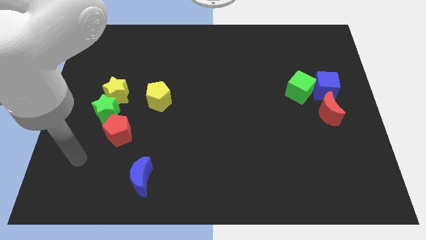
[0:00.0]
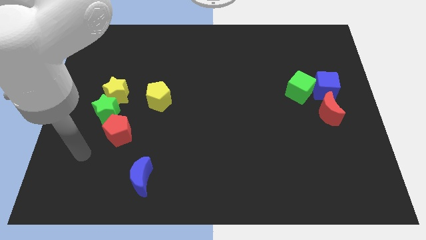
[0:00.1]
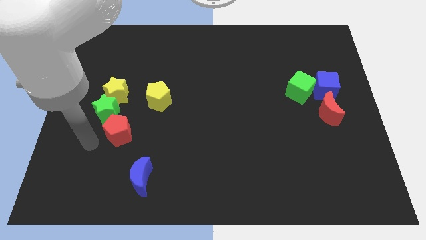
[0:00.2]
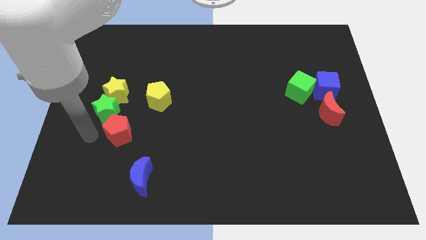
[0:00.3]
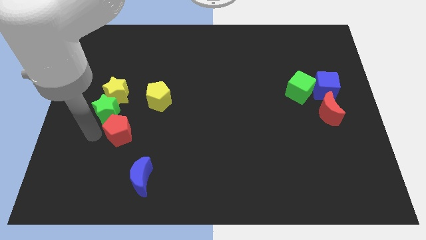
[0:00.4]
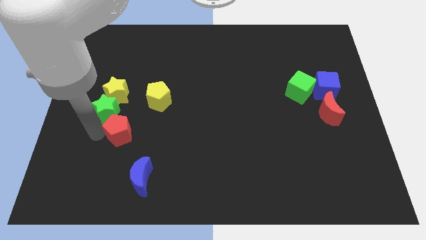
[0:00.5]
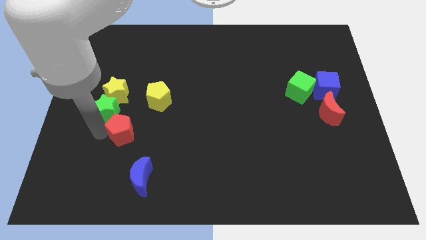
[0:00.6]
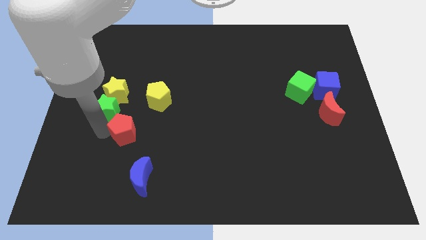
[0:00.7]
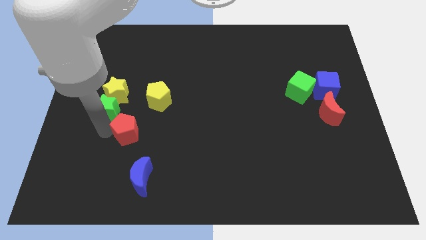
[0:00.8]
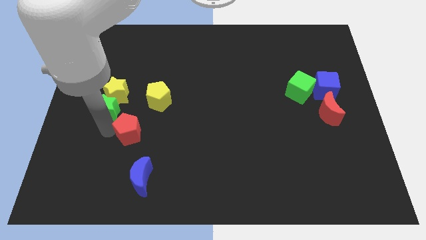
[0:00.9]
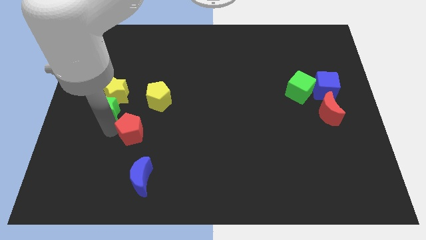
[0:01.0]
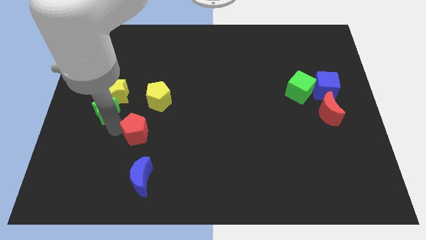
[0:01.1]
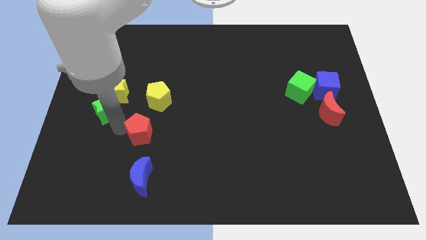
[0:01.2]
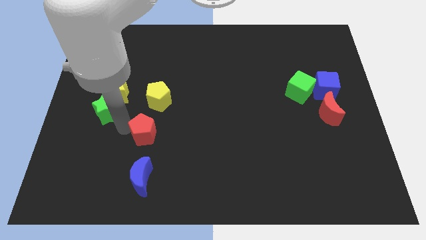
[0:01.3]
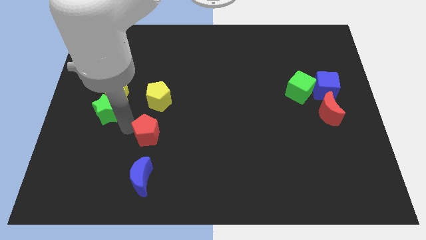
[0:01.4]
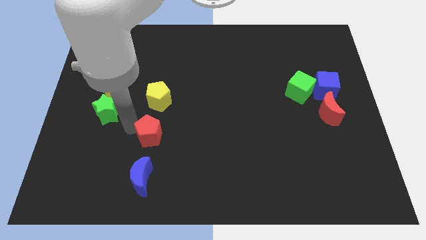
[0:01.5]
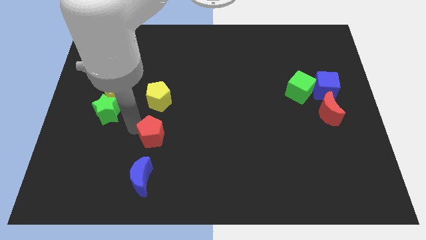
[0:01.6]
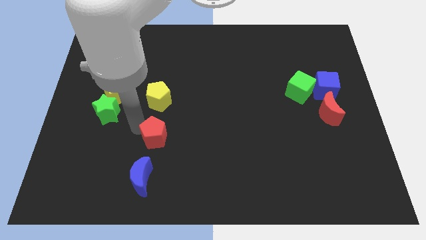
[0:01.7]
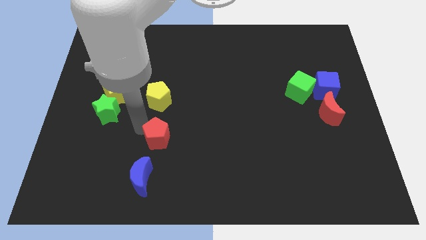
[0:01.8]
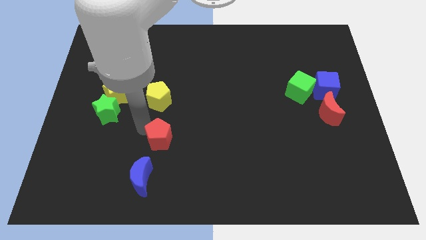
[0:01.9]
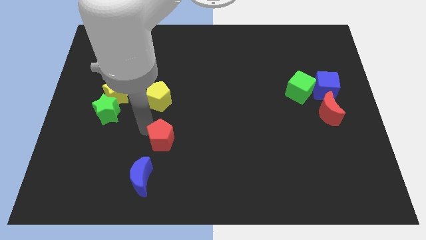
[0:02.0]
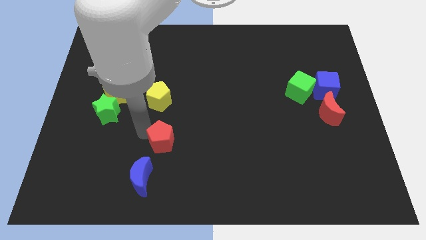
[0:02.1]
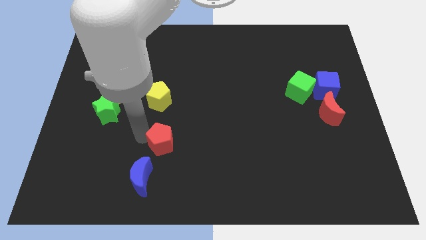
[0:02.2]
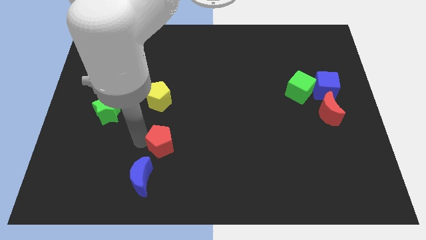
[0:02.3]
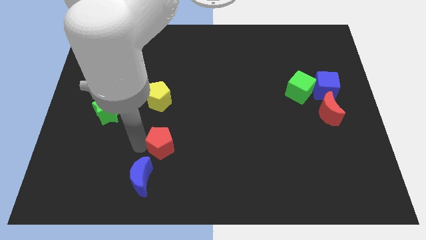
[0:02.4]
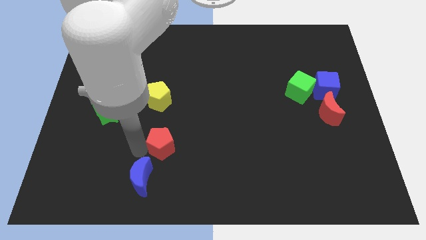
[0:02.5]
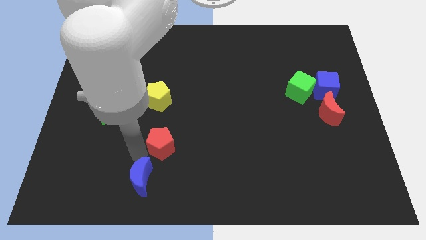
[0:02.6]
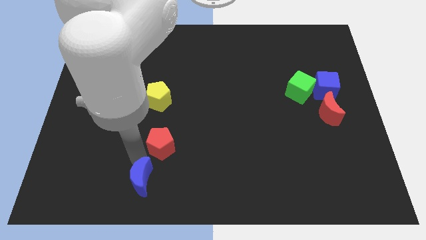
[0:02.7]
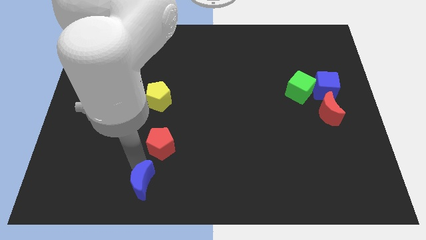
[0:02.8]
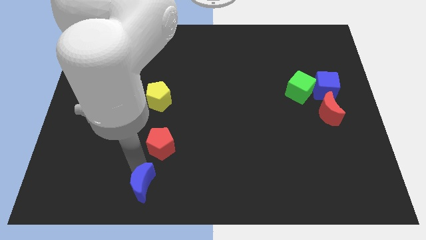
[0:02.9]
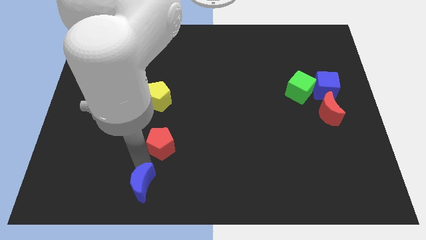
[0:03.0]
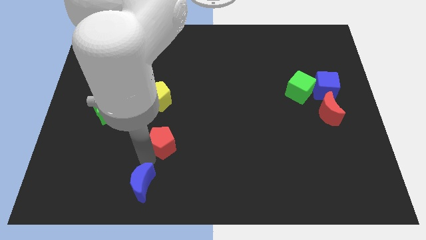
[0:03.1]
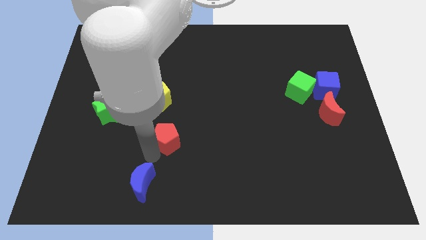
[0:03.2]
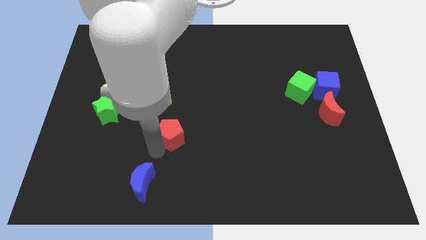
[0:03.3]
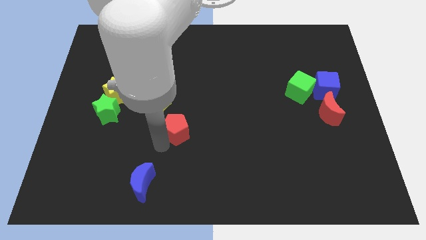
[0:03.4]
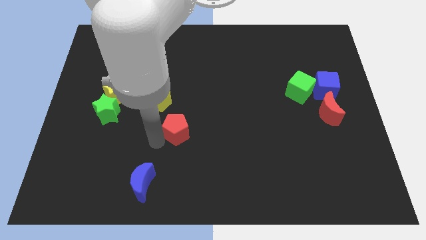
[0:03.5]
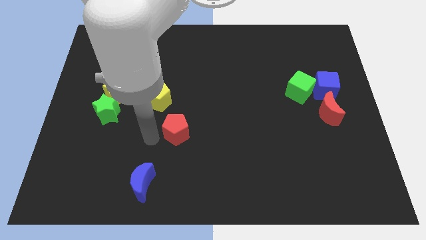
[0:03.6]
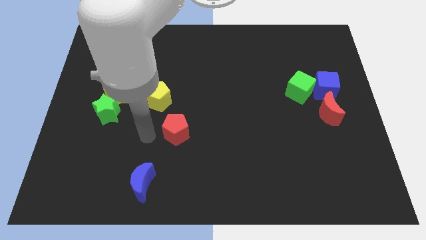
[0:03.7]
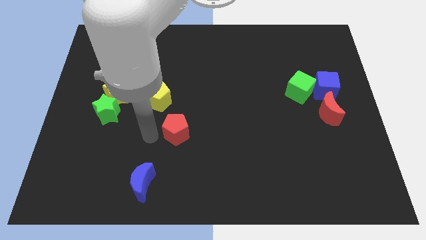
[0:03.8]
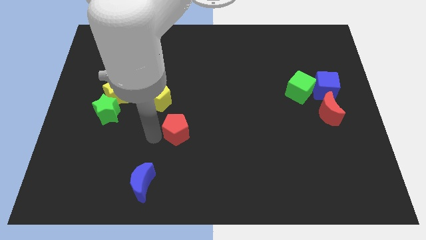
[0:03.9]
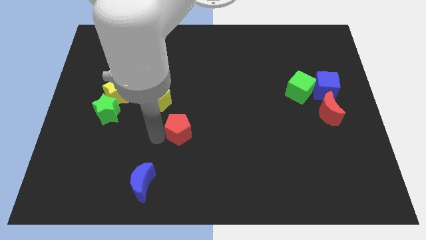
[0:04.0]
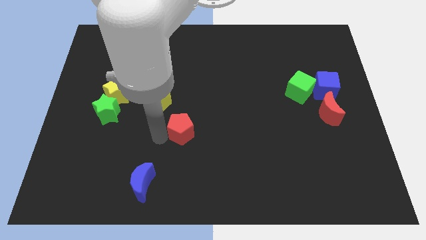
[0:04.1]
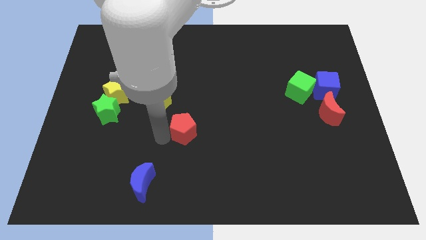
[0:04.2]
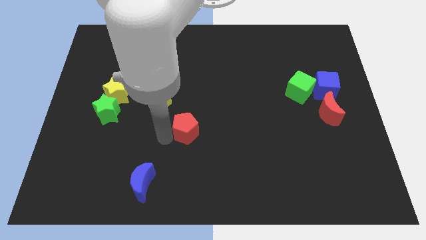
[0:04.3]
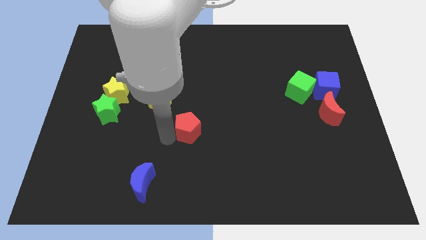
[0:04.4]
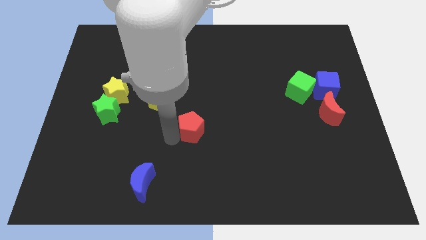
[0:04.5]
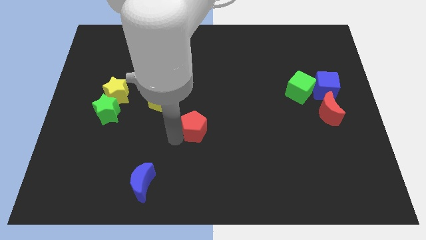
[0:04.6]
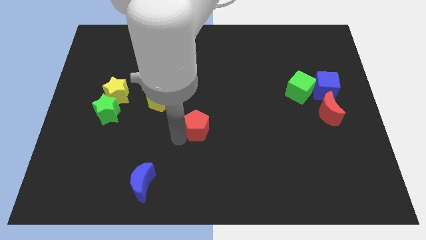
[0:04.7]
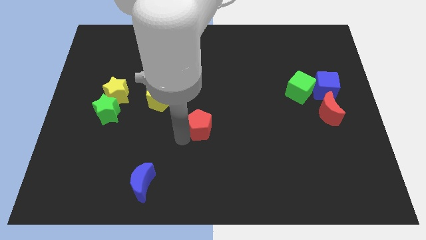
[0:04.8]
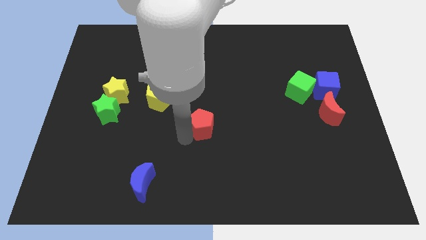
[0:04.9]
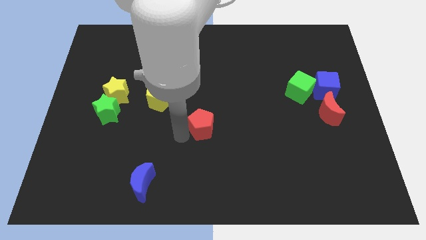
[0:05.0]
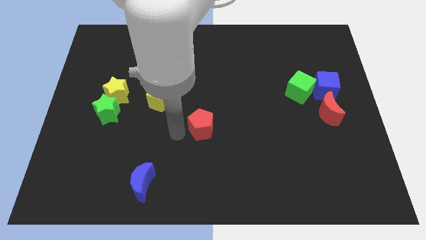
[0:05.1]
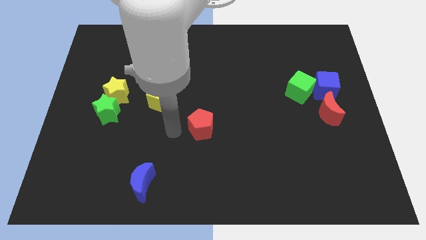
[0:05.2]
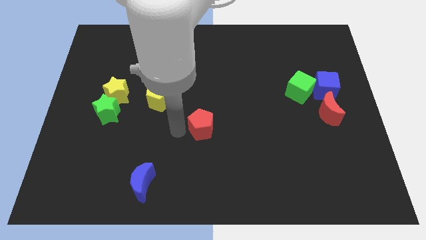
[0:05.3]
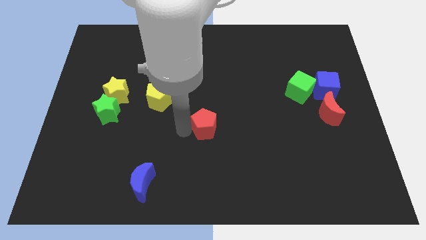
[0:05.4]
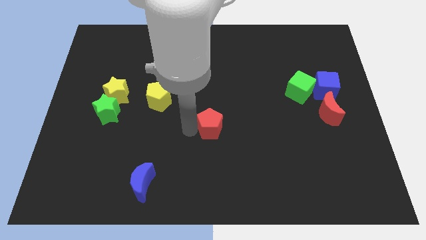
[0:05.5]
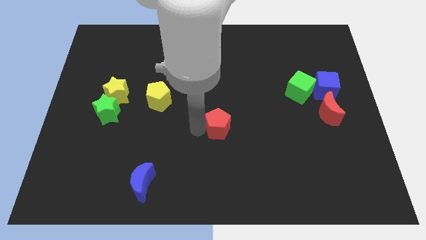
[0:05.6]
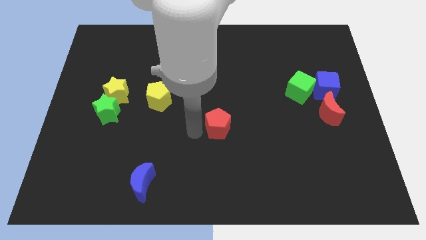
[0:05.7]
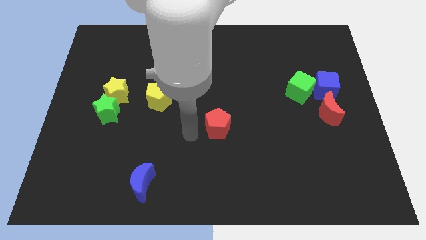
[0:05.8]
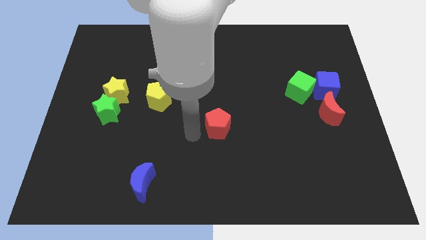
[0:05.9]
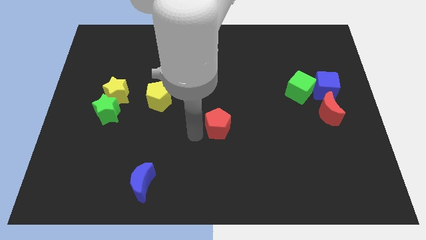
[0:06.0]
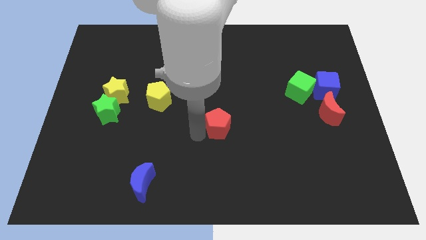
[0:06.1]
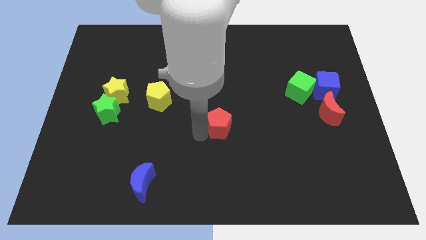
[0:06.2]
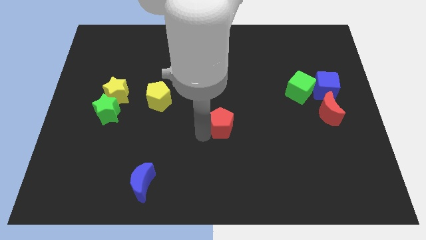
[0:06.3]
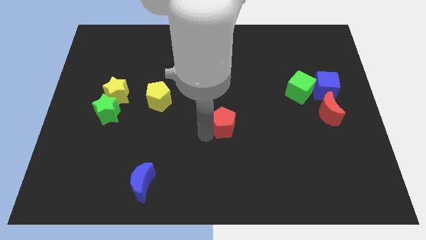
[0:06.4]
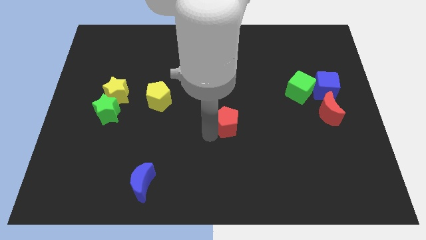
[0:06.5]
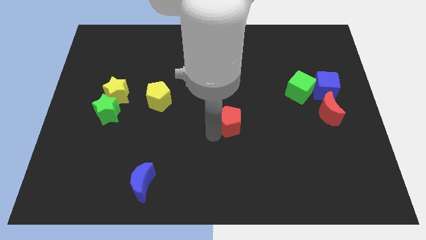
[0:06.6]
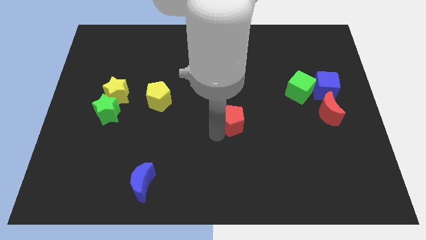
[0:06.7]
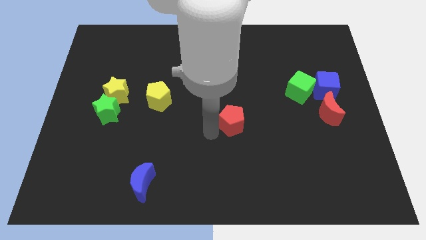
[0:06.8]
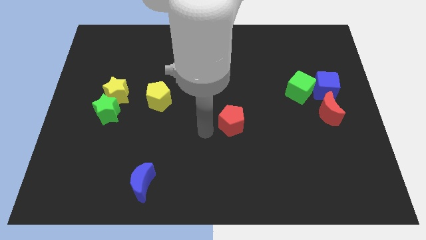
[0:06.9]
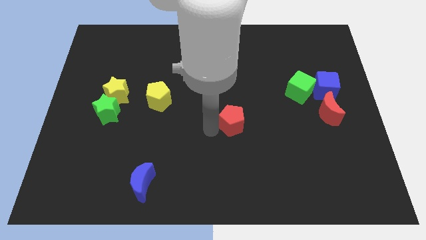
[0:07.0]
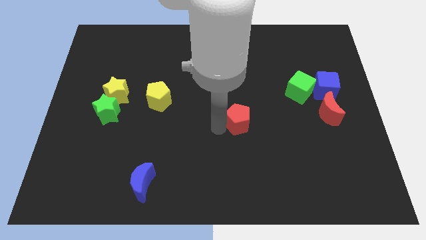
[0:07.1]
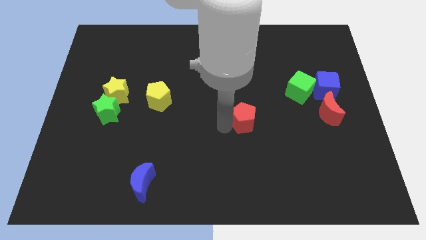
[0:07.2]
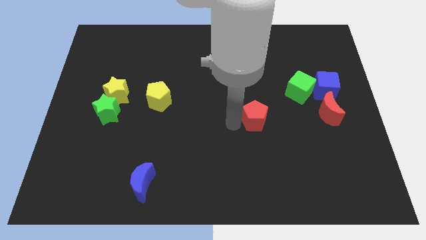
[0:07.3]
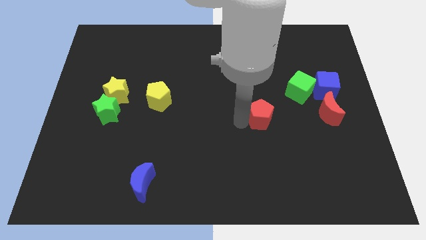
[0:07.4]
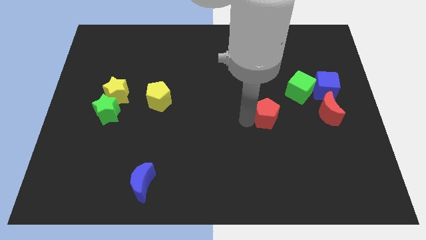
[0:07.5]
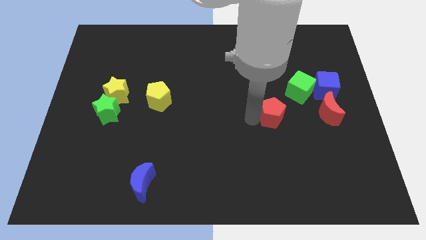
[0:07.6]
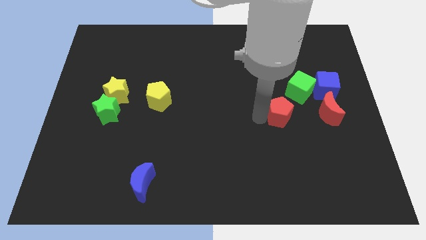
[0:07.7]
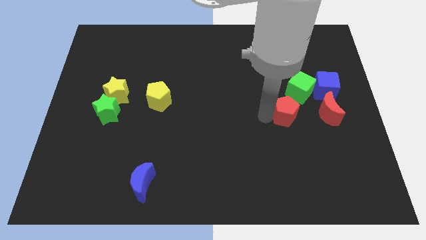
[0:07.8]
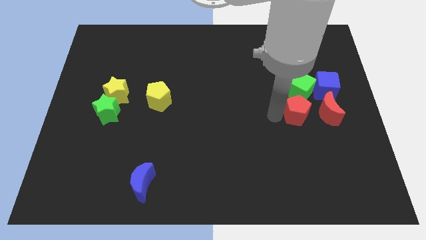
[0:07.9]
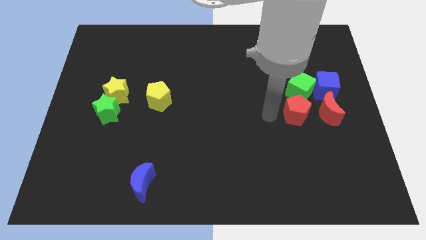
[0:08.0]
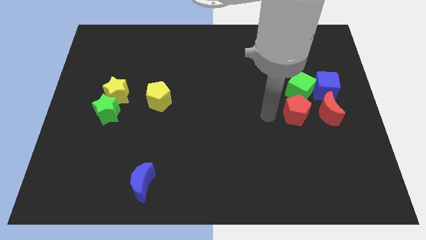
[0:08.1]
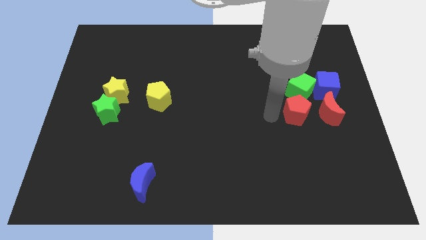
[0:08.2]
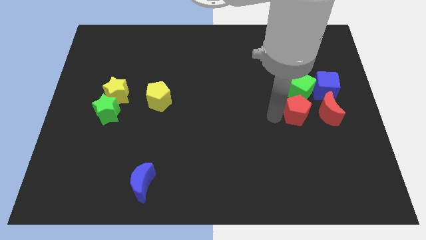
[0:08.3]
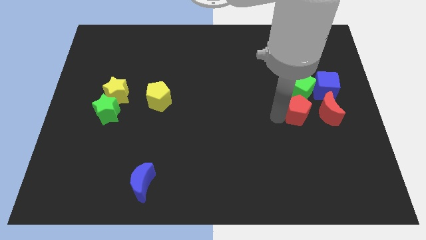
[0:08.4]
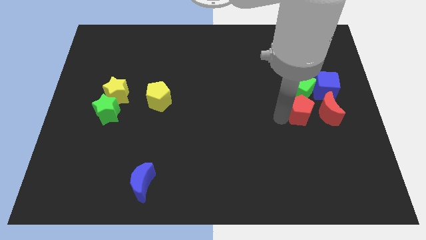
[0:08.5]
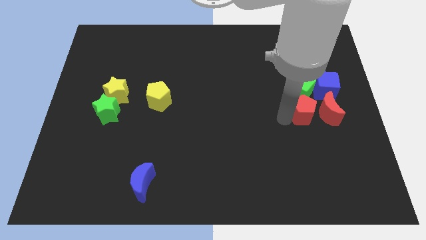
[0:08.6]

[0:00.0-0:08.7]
move the red pentagon next to the red moon
